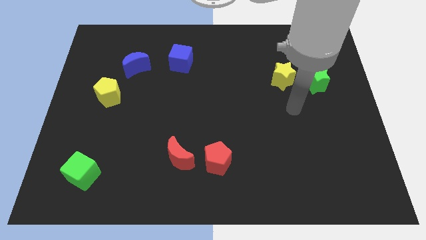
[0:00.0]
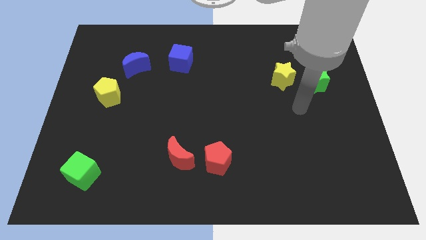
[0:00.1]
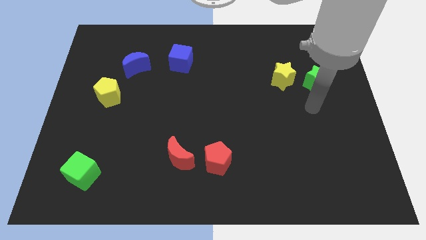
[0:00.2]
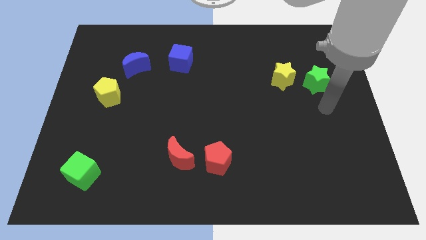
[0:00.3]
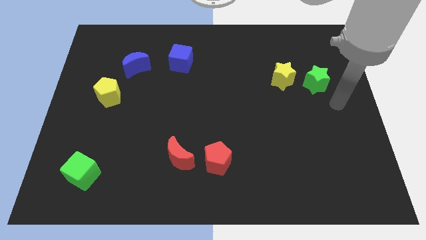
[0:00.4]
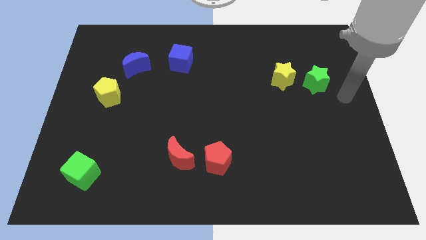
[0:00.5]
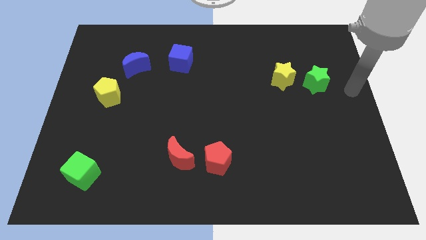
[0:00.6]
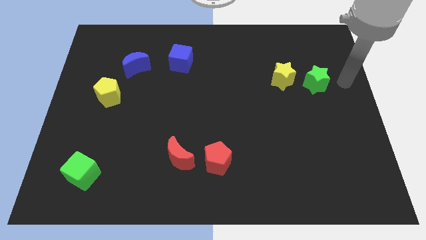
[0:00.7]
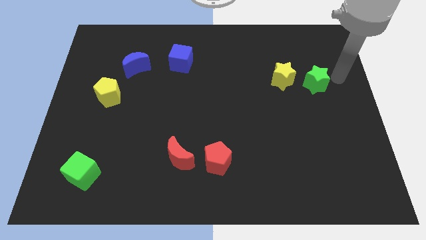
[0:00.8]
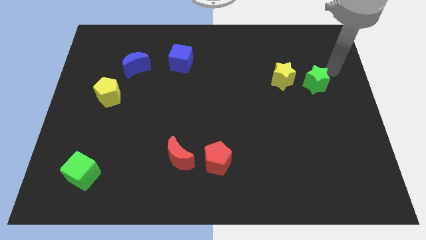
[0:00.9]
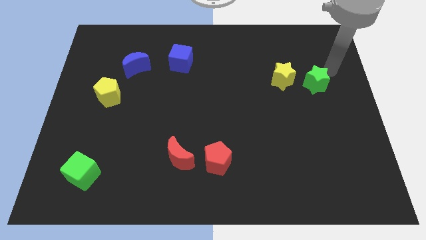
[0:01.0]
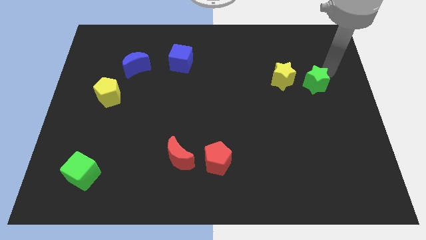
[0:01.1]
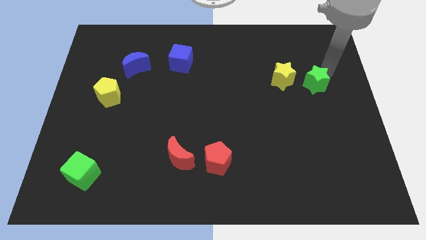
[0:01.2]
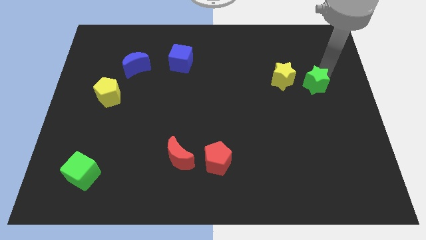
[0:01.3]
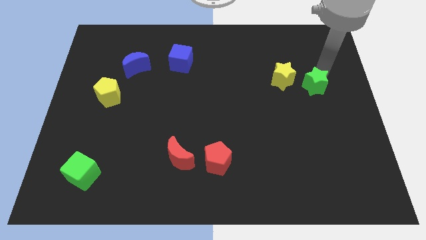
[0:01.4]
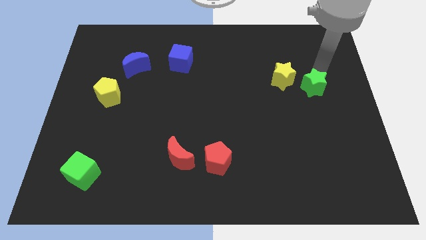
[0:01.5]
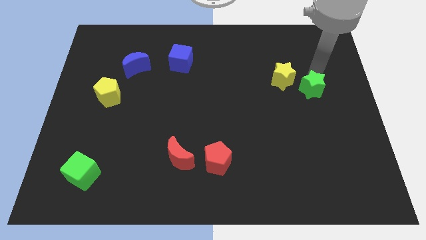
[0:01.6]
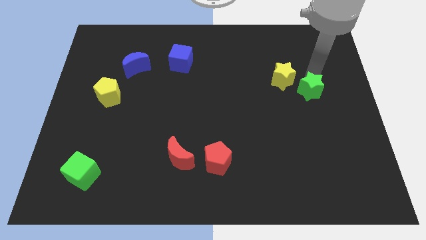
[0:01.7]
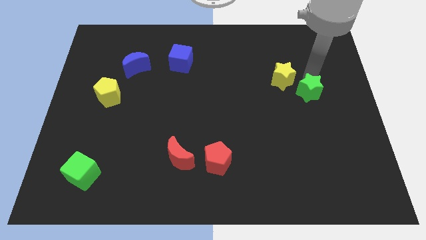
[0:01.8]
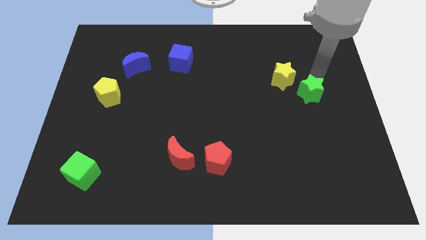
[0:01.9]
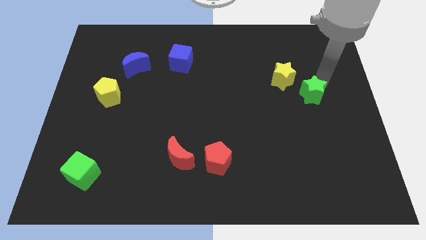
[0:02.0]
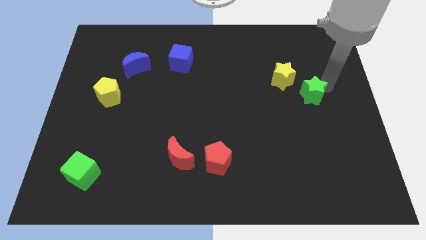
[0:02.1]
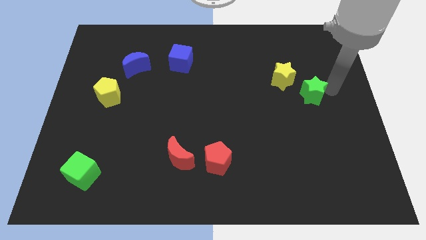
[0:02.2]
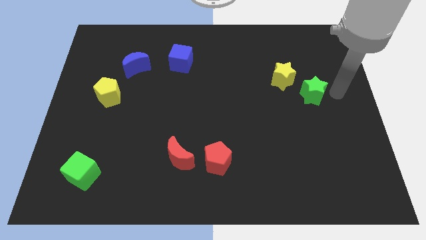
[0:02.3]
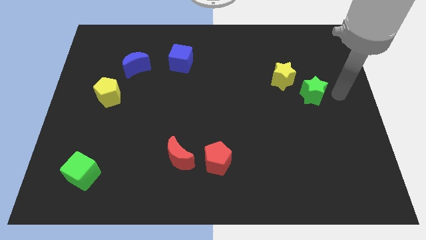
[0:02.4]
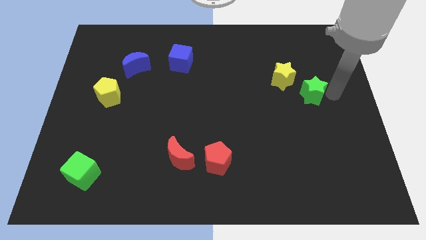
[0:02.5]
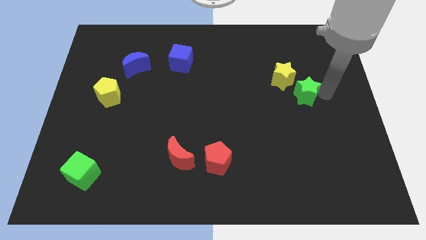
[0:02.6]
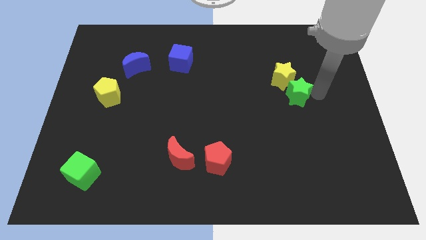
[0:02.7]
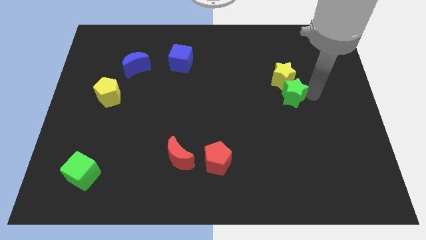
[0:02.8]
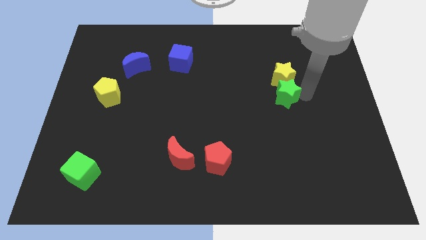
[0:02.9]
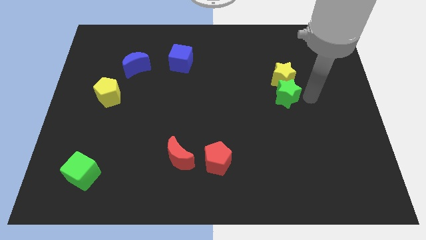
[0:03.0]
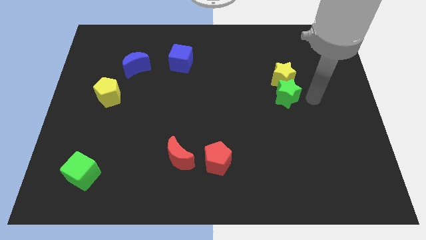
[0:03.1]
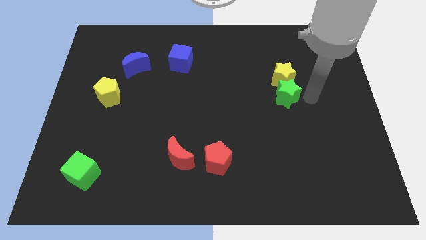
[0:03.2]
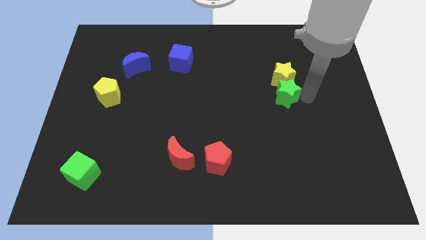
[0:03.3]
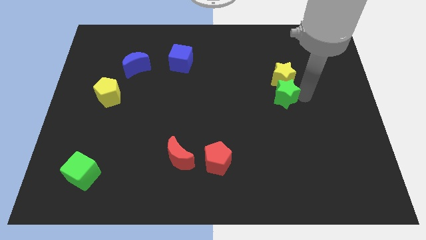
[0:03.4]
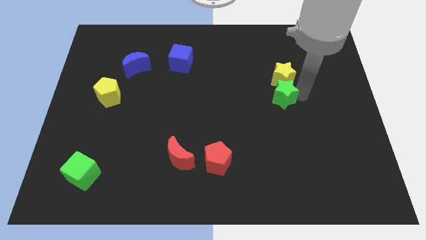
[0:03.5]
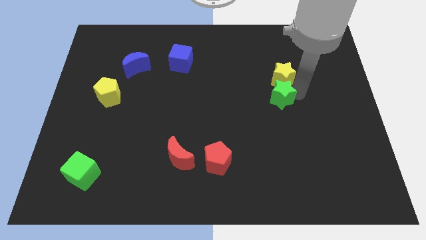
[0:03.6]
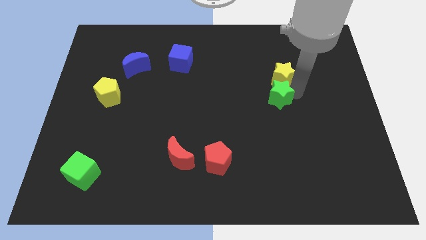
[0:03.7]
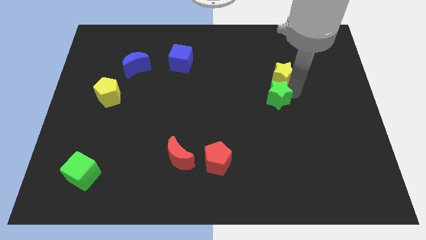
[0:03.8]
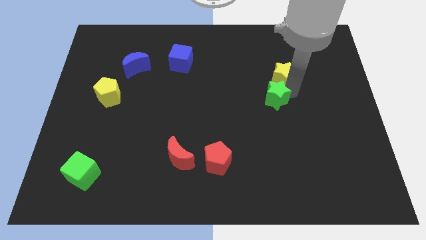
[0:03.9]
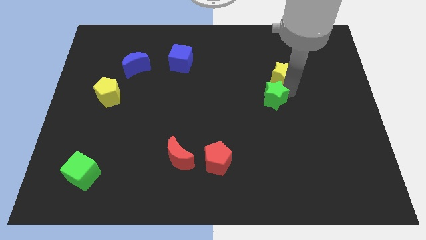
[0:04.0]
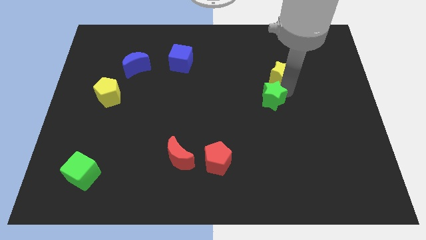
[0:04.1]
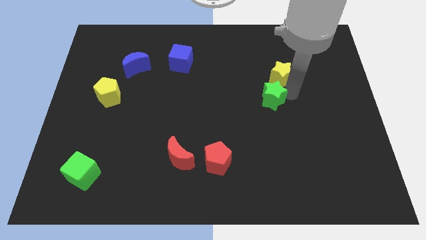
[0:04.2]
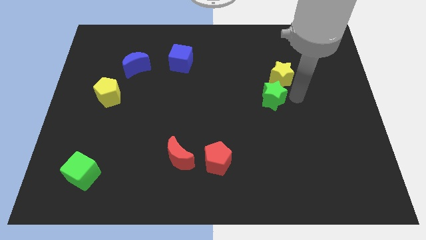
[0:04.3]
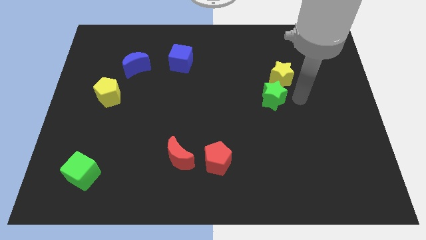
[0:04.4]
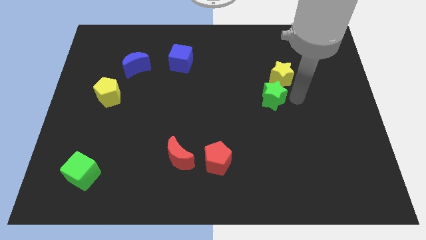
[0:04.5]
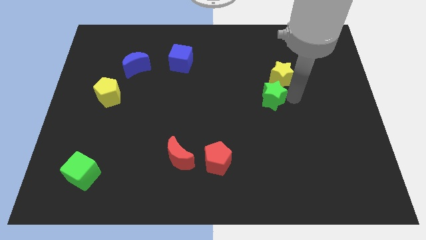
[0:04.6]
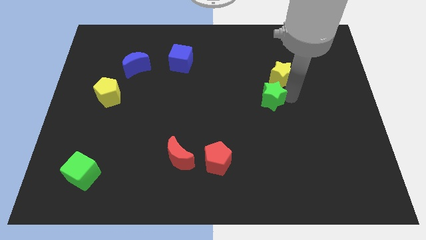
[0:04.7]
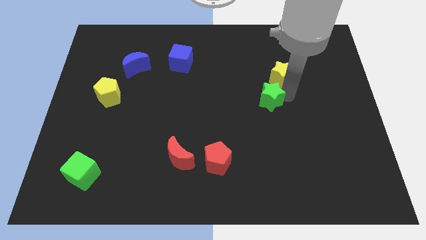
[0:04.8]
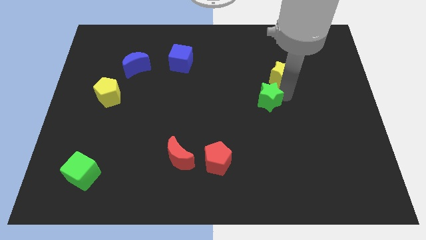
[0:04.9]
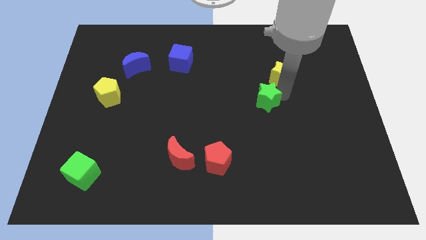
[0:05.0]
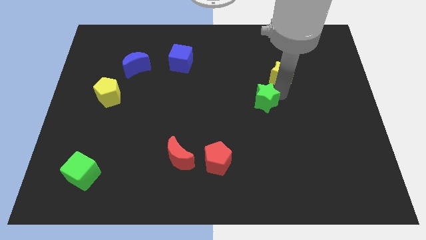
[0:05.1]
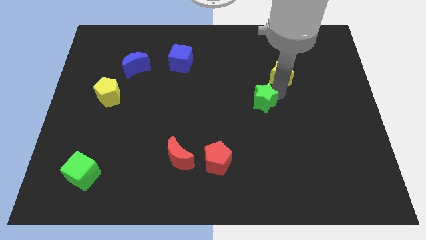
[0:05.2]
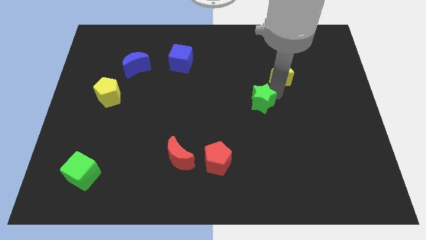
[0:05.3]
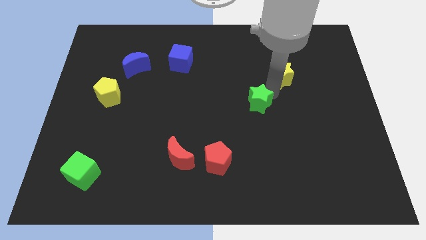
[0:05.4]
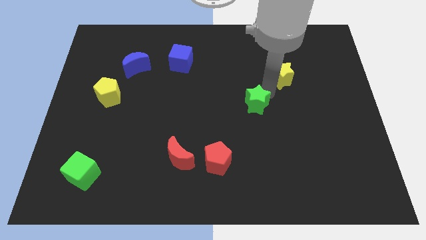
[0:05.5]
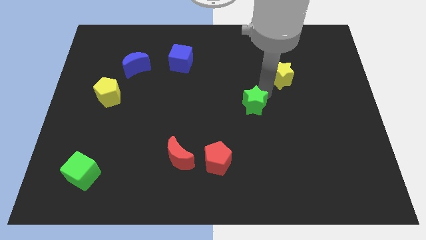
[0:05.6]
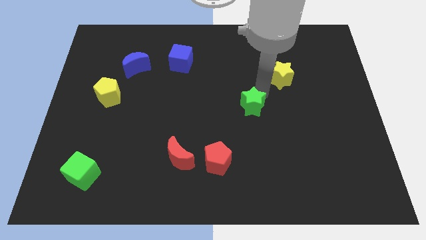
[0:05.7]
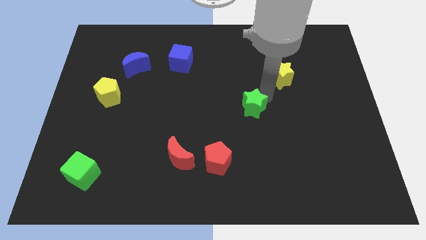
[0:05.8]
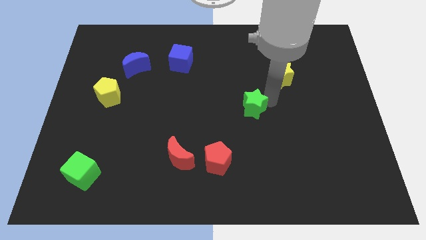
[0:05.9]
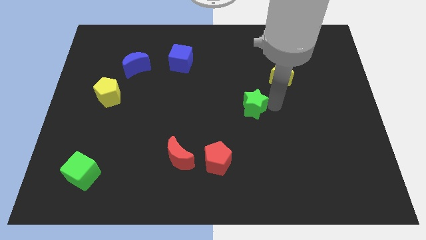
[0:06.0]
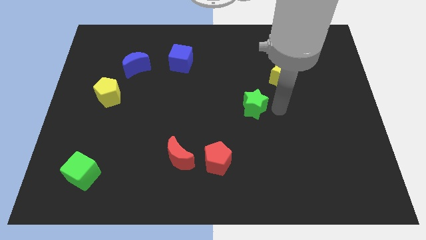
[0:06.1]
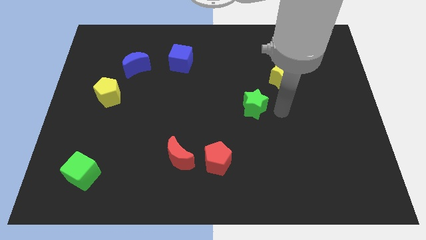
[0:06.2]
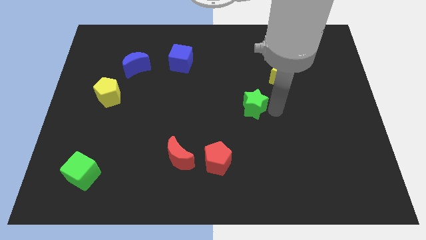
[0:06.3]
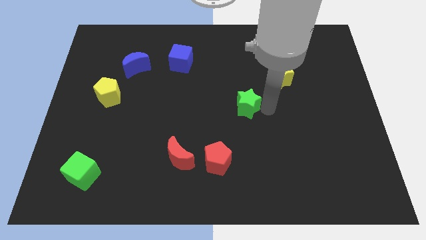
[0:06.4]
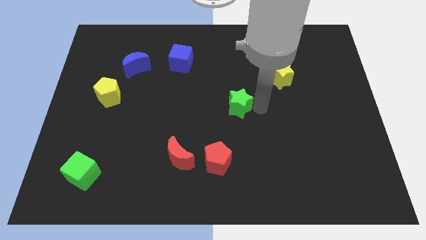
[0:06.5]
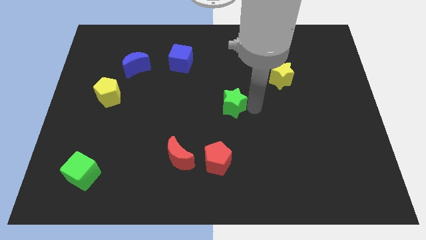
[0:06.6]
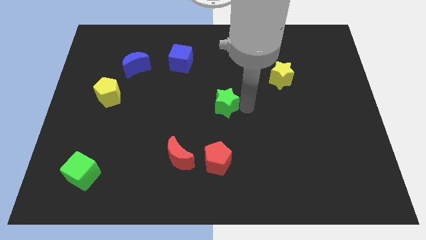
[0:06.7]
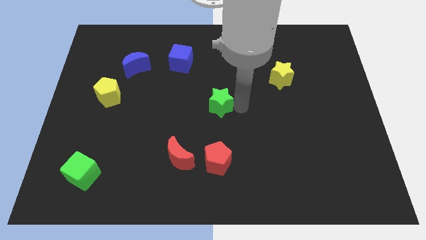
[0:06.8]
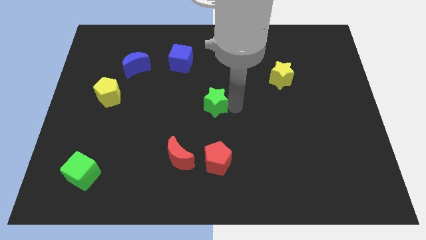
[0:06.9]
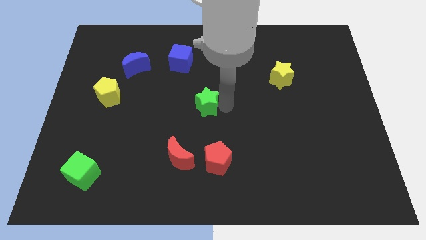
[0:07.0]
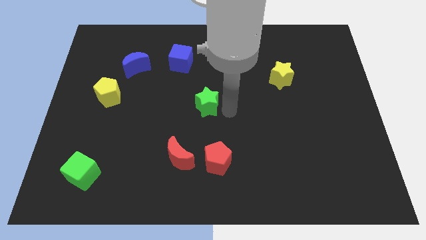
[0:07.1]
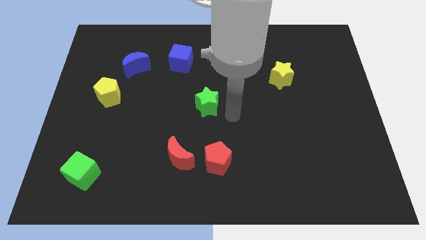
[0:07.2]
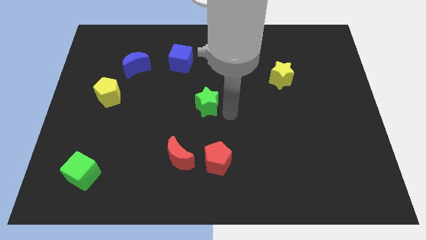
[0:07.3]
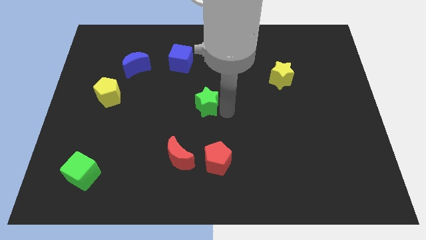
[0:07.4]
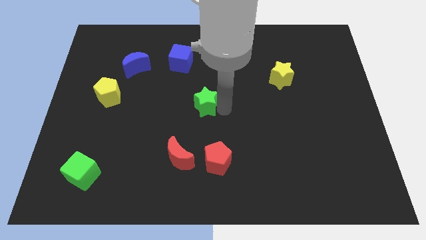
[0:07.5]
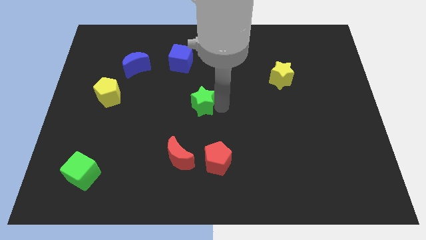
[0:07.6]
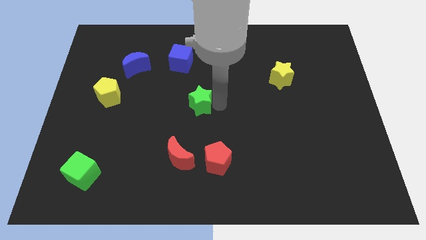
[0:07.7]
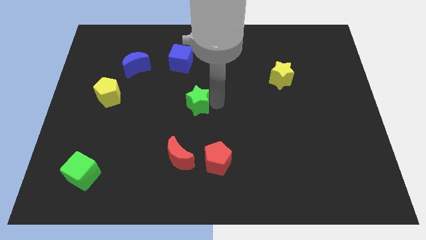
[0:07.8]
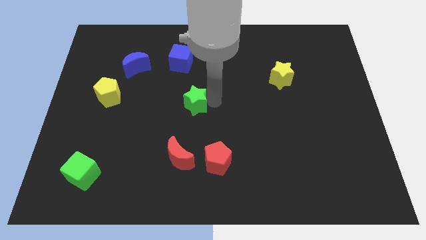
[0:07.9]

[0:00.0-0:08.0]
move the green star to the bottom side of the blue cube
